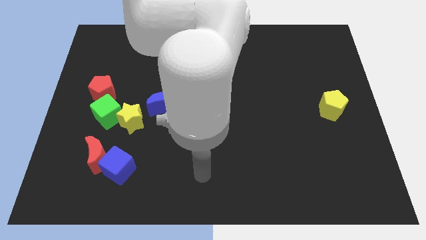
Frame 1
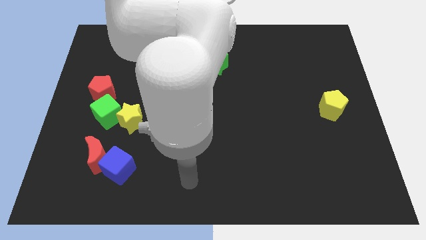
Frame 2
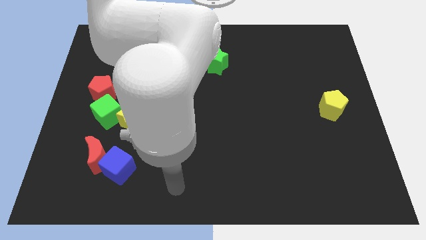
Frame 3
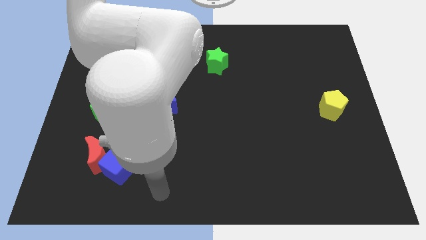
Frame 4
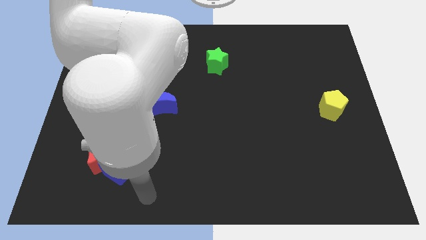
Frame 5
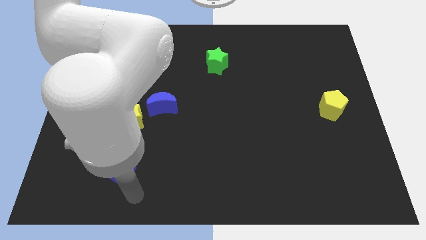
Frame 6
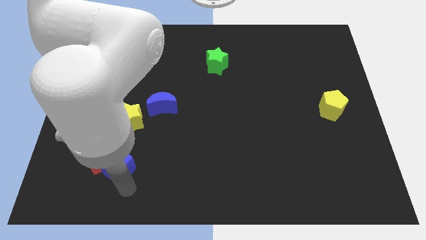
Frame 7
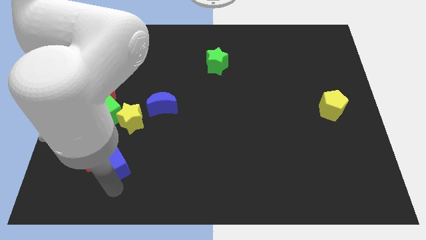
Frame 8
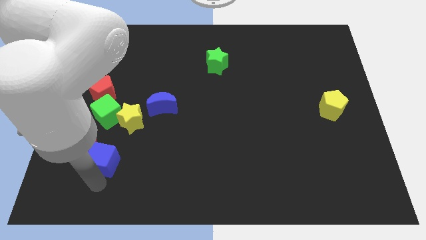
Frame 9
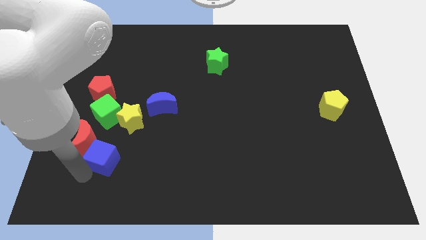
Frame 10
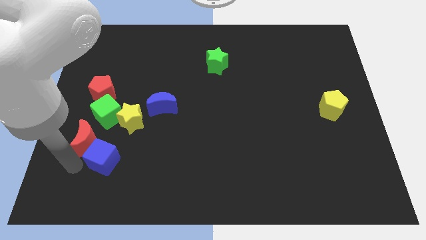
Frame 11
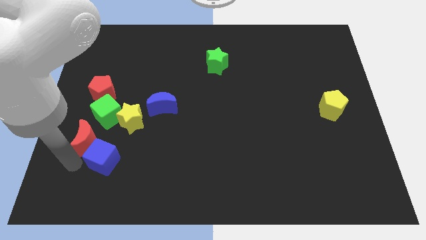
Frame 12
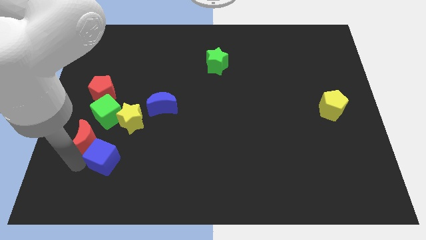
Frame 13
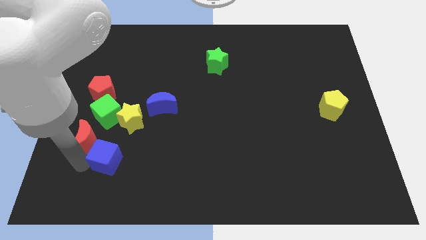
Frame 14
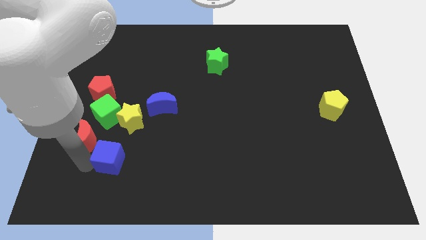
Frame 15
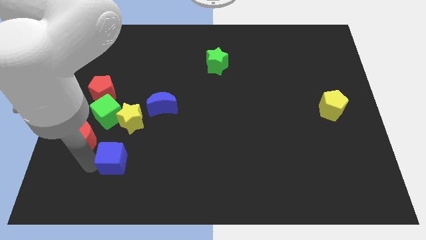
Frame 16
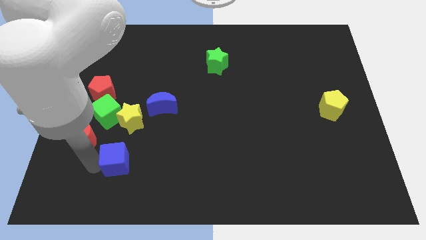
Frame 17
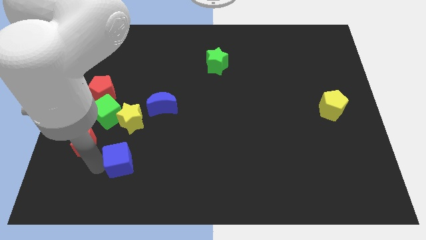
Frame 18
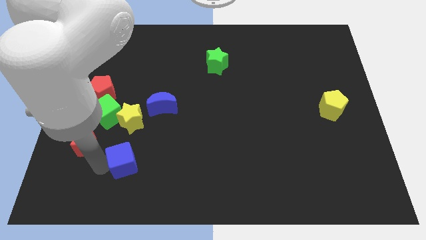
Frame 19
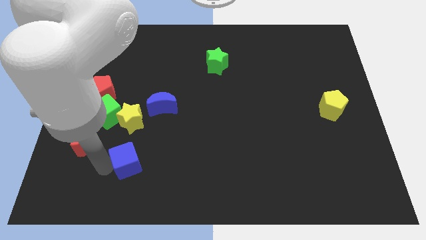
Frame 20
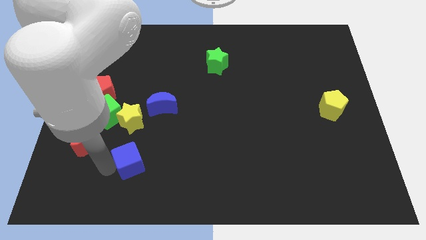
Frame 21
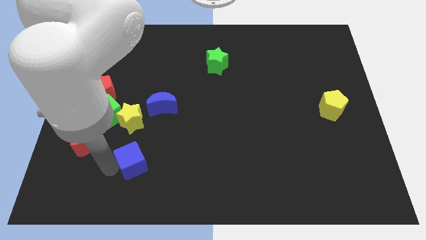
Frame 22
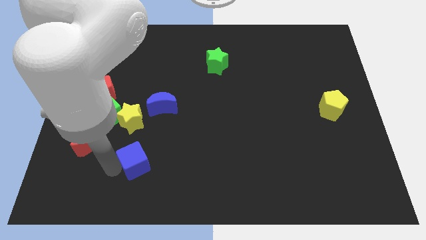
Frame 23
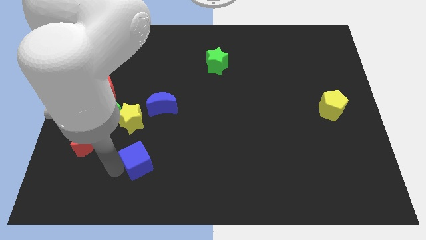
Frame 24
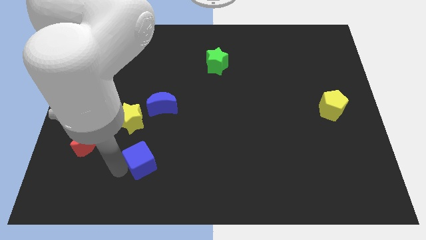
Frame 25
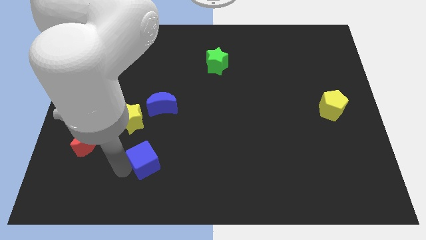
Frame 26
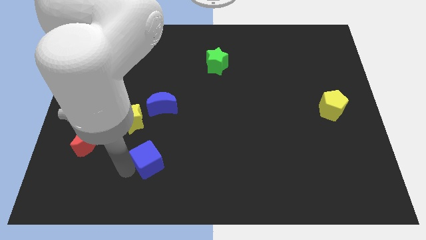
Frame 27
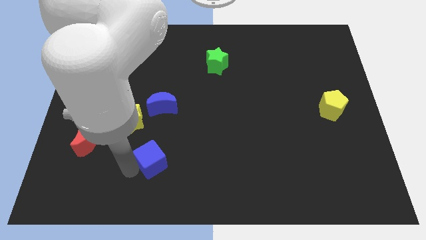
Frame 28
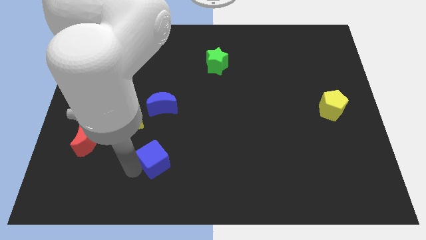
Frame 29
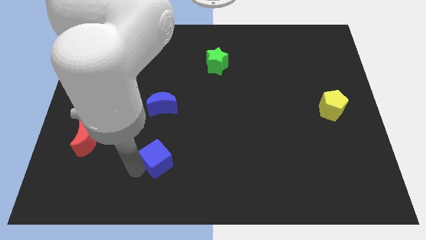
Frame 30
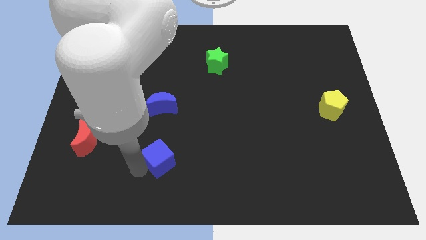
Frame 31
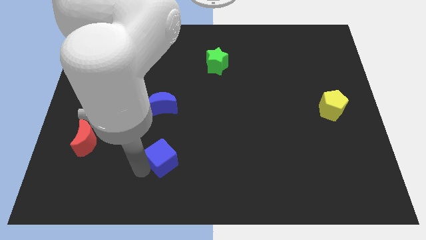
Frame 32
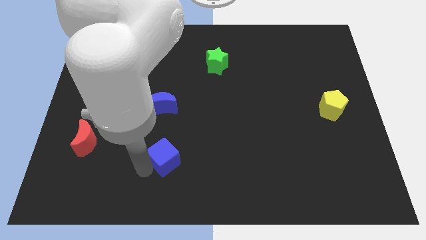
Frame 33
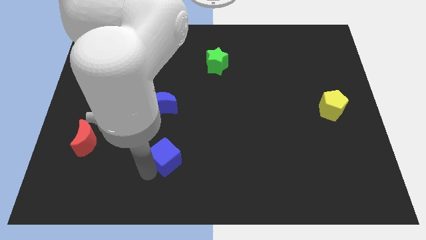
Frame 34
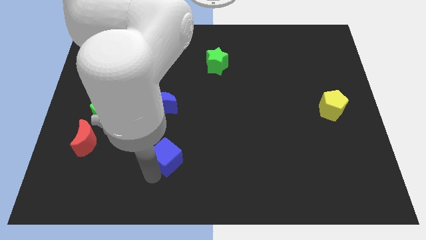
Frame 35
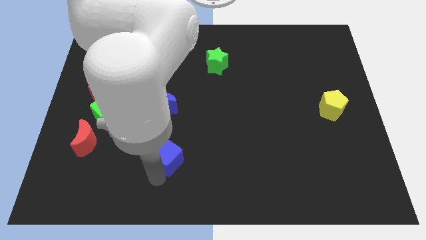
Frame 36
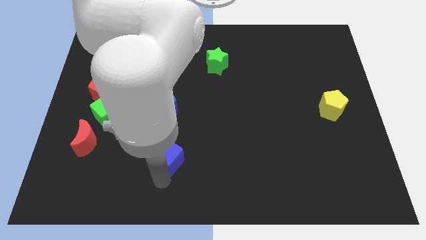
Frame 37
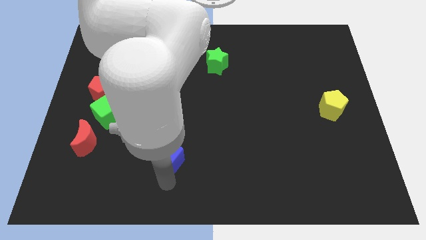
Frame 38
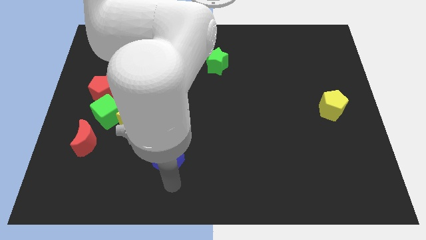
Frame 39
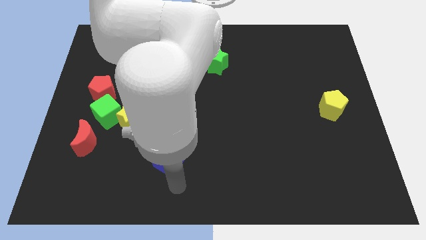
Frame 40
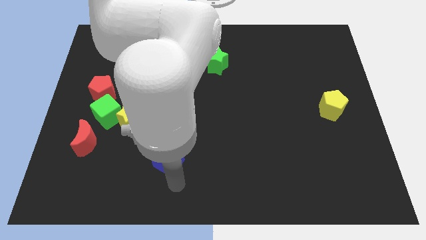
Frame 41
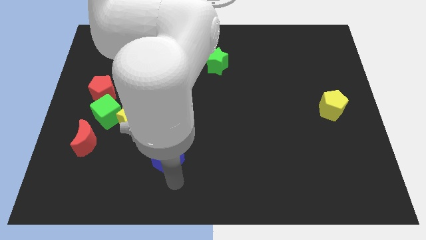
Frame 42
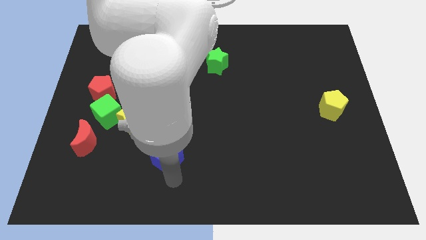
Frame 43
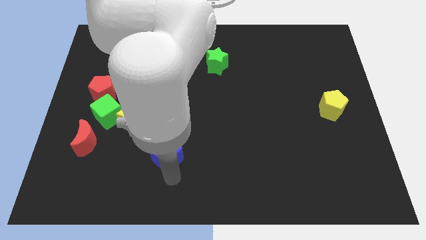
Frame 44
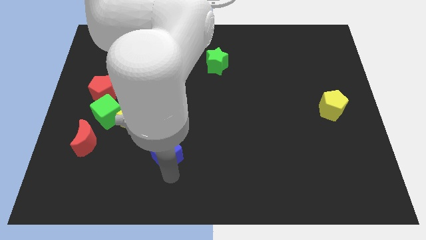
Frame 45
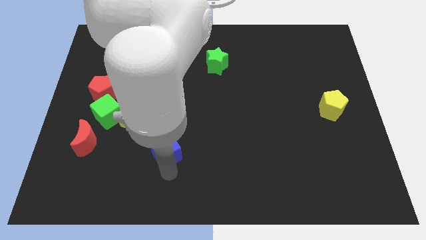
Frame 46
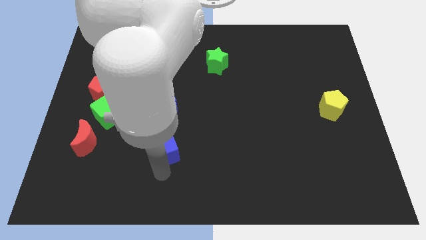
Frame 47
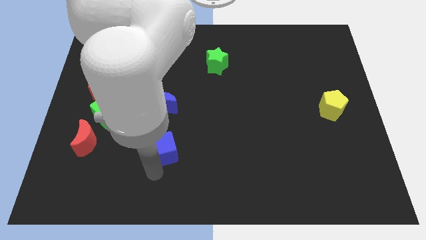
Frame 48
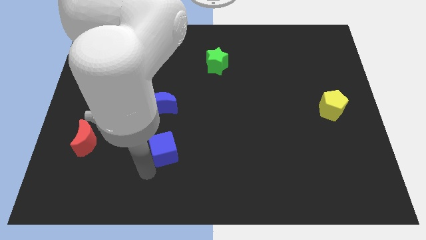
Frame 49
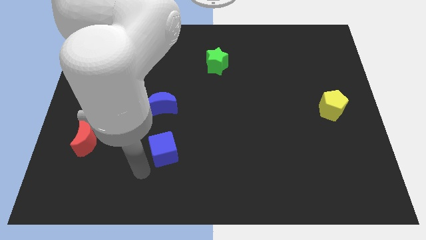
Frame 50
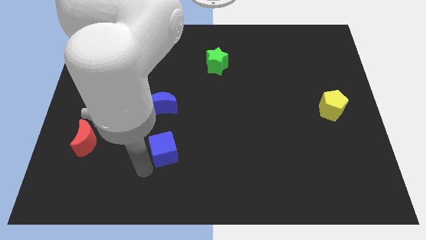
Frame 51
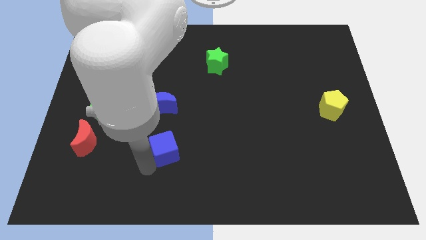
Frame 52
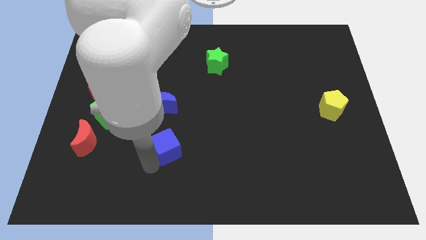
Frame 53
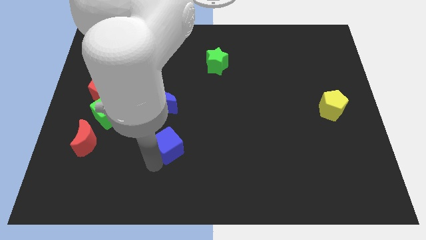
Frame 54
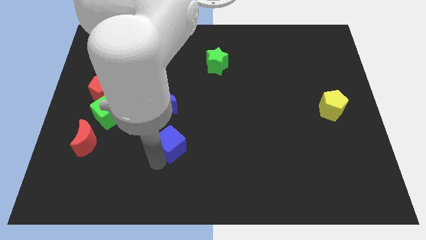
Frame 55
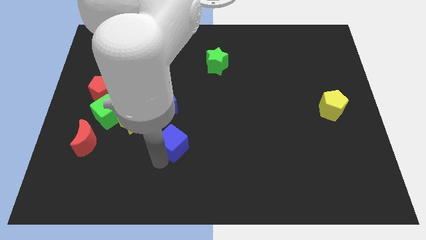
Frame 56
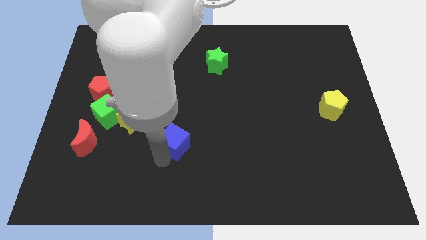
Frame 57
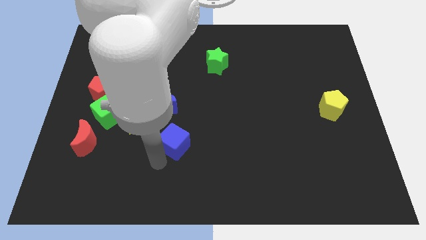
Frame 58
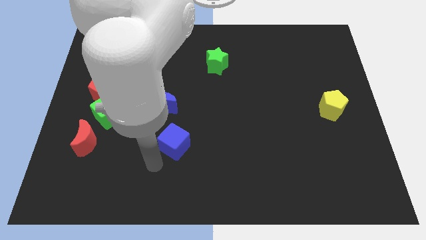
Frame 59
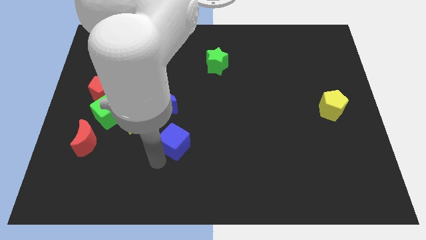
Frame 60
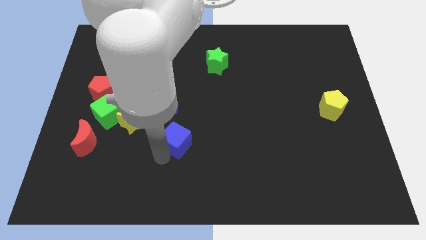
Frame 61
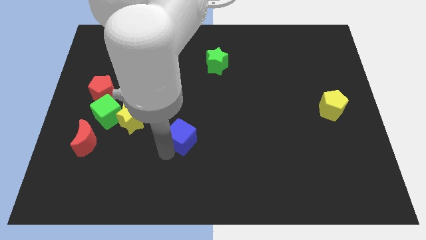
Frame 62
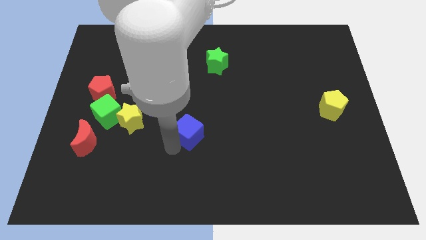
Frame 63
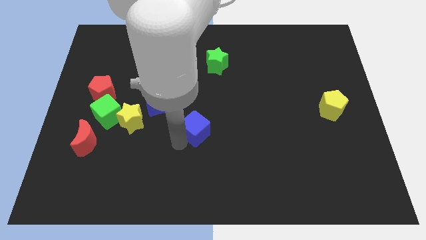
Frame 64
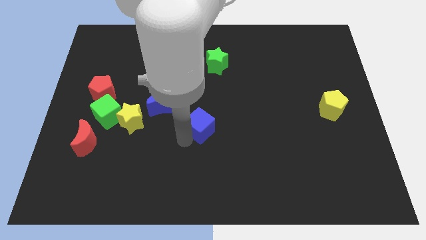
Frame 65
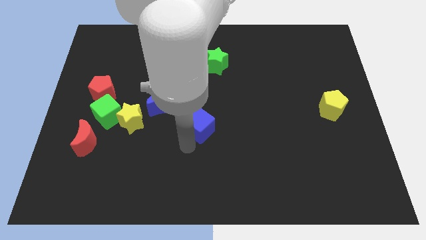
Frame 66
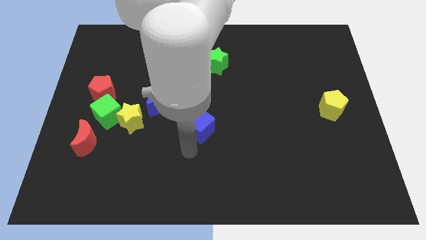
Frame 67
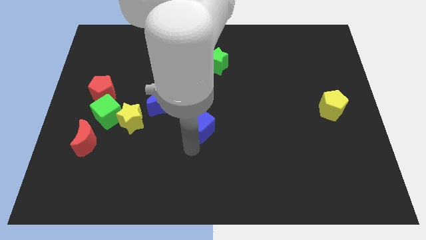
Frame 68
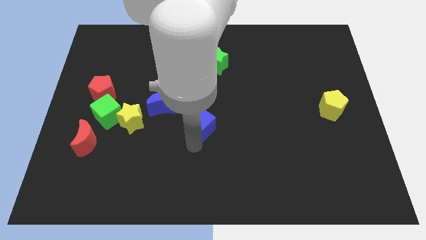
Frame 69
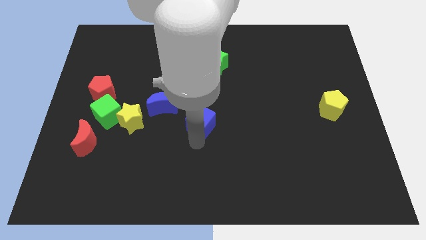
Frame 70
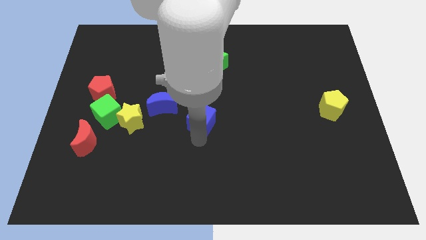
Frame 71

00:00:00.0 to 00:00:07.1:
slide the blue cube upwards and then right

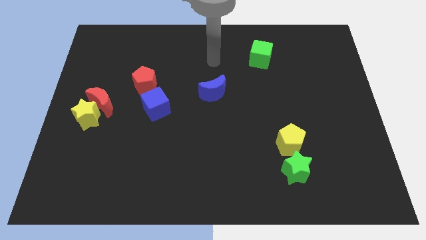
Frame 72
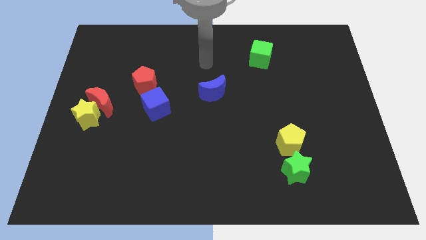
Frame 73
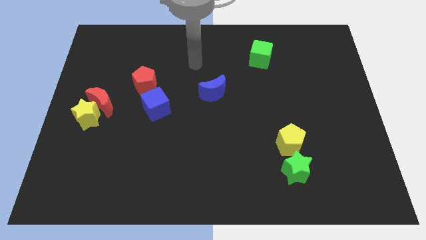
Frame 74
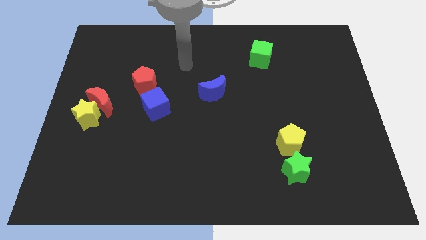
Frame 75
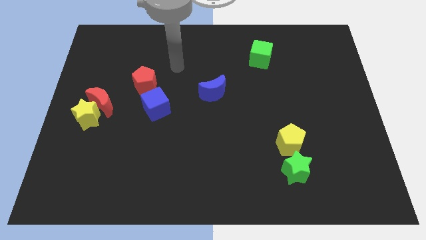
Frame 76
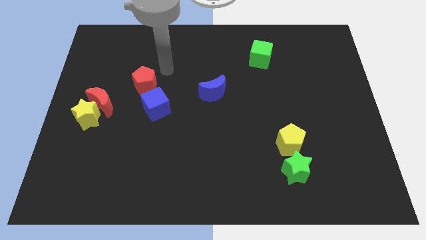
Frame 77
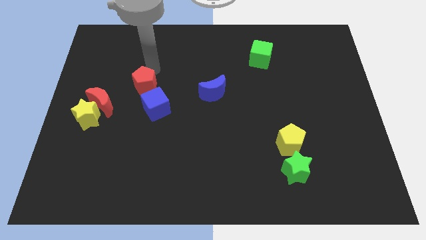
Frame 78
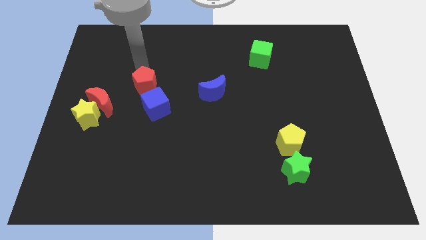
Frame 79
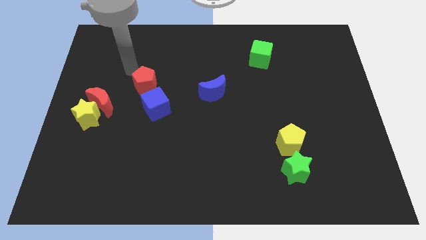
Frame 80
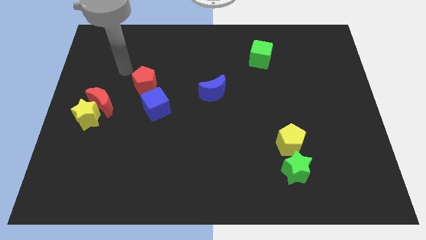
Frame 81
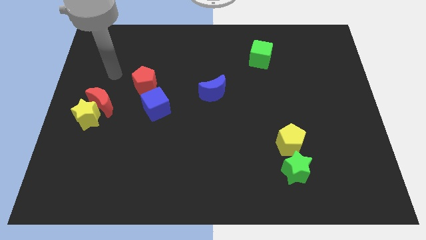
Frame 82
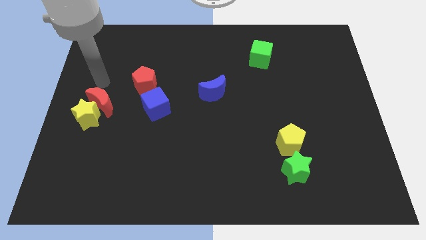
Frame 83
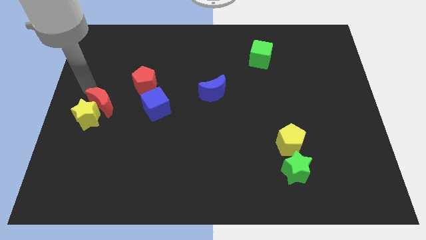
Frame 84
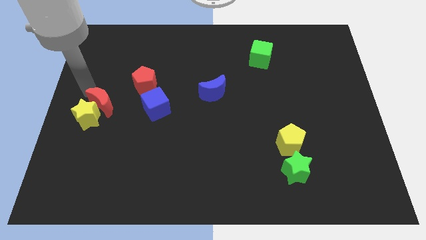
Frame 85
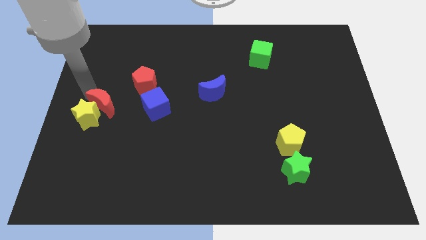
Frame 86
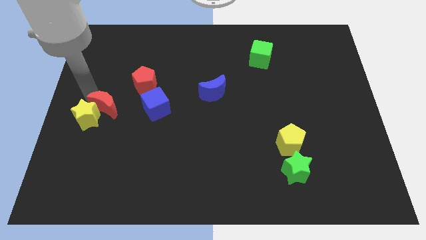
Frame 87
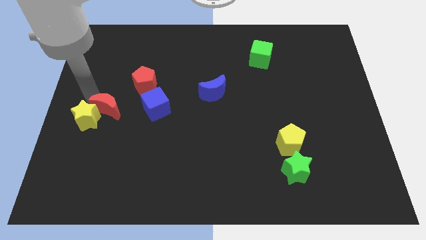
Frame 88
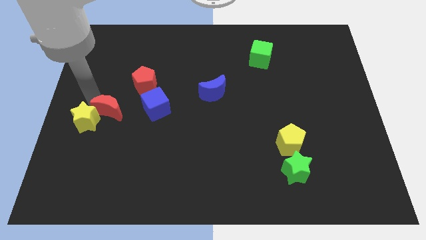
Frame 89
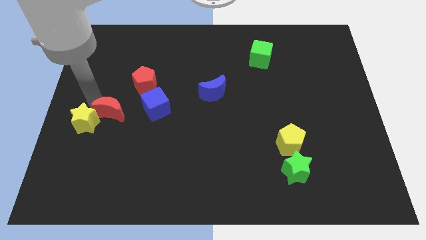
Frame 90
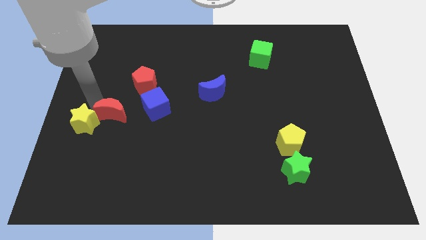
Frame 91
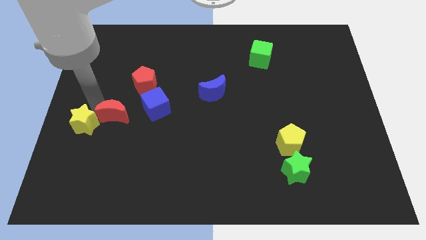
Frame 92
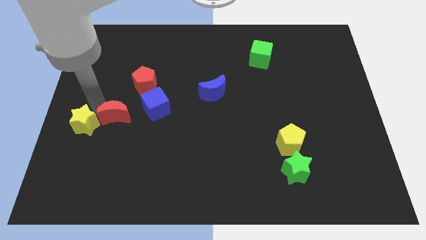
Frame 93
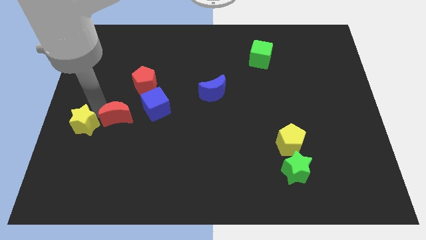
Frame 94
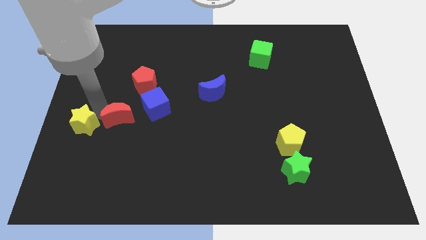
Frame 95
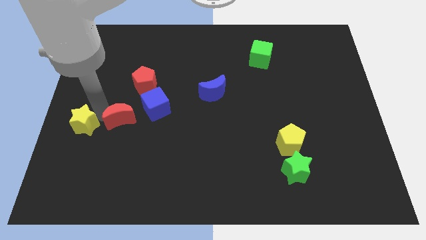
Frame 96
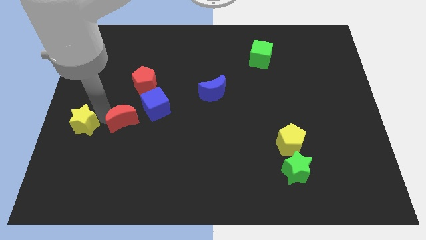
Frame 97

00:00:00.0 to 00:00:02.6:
push the red moon a bit downwards and then right
